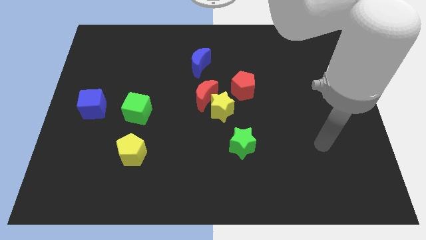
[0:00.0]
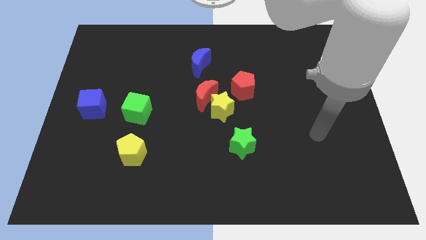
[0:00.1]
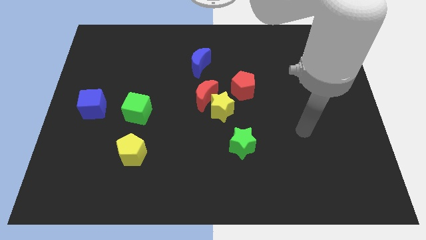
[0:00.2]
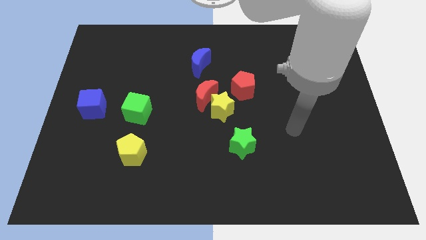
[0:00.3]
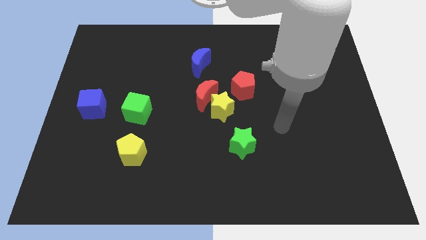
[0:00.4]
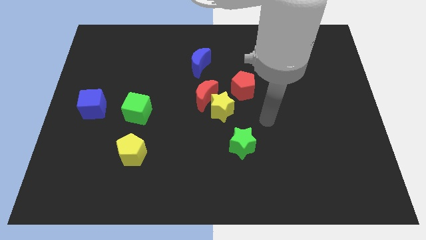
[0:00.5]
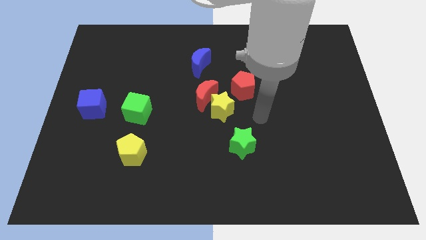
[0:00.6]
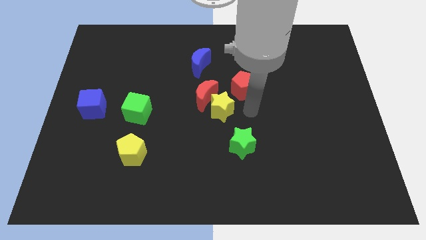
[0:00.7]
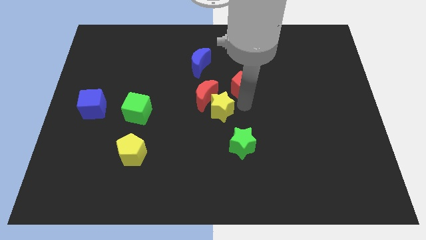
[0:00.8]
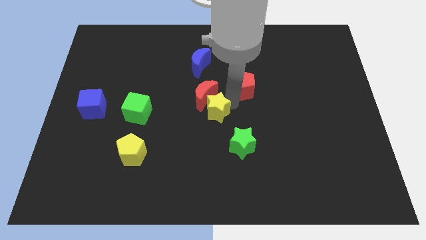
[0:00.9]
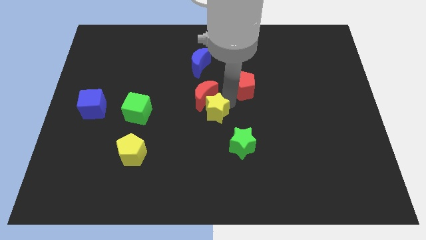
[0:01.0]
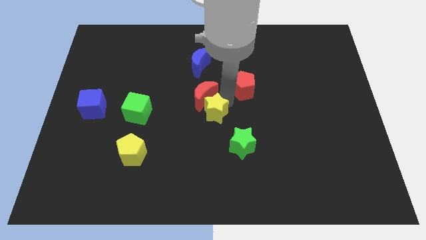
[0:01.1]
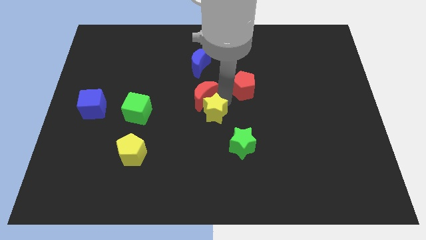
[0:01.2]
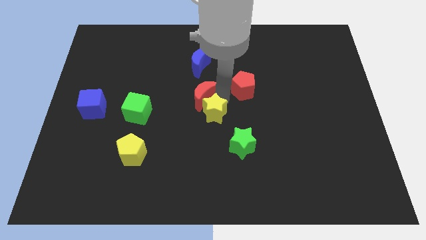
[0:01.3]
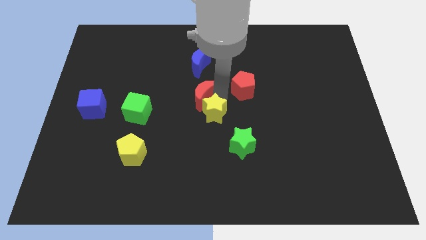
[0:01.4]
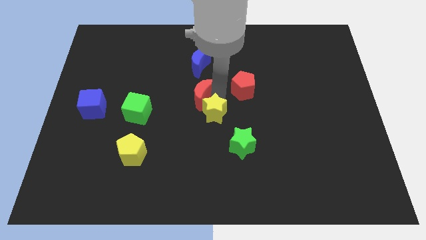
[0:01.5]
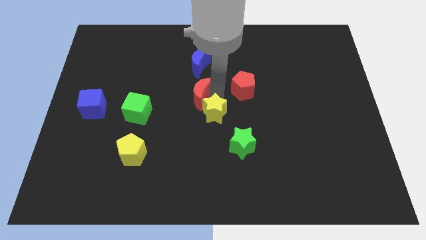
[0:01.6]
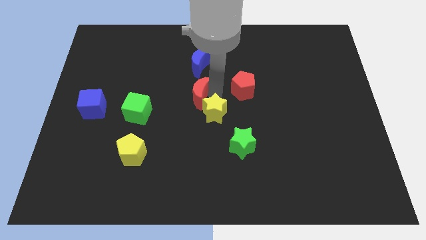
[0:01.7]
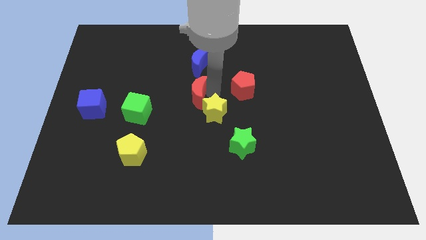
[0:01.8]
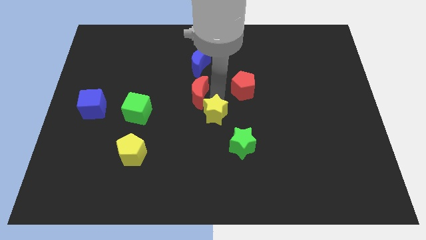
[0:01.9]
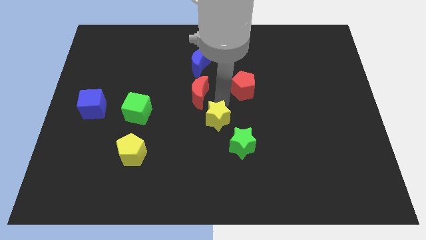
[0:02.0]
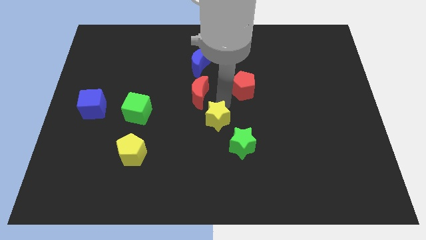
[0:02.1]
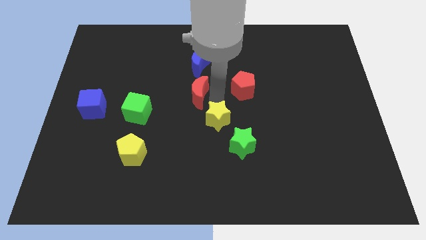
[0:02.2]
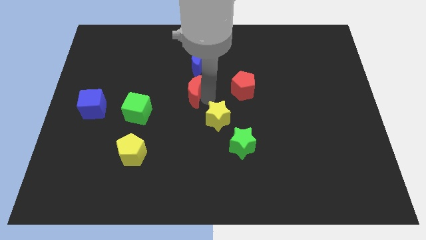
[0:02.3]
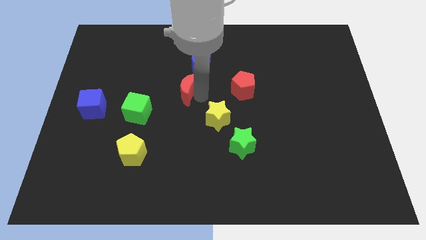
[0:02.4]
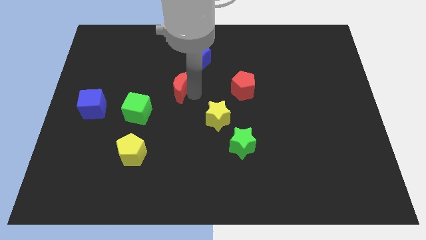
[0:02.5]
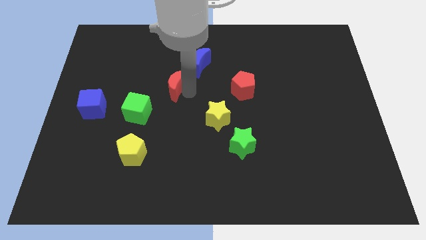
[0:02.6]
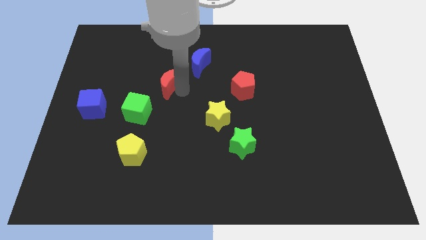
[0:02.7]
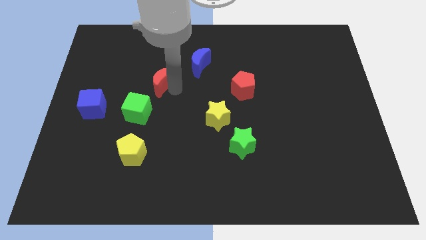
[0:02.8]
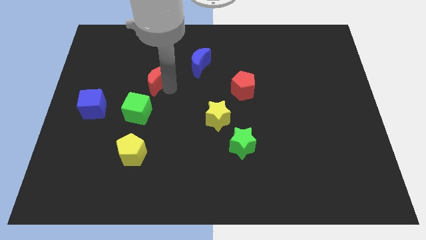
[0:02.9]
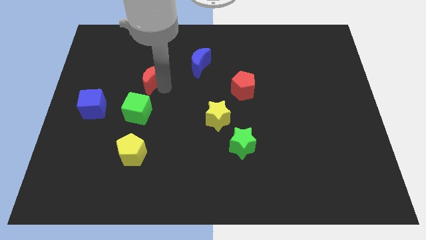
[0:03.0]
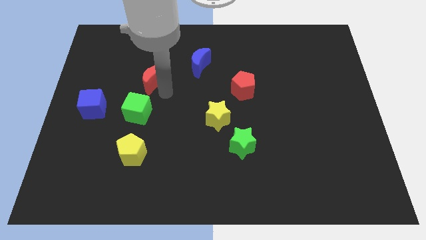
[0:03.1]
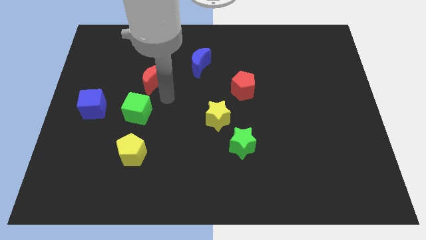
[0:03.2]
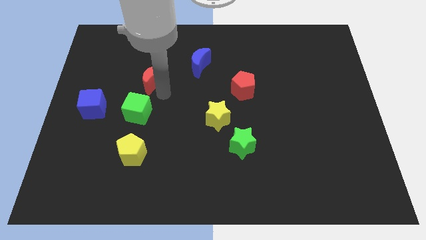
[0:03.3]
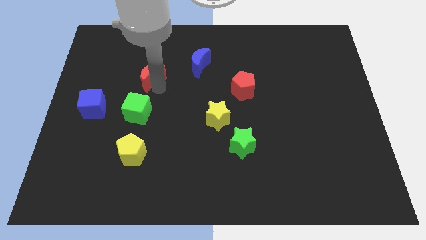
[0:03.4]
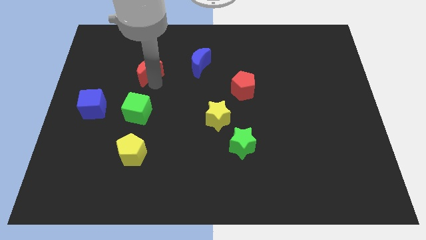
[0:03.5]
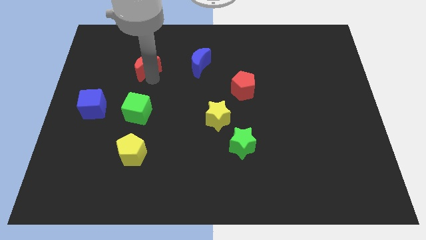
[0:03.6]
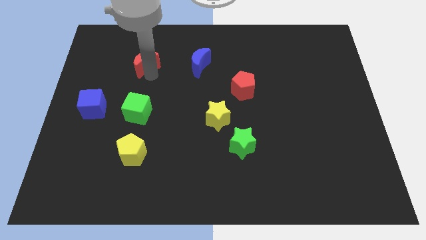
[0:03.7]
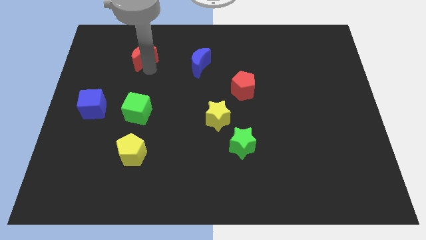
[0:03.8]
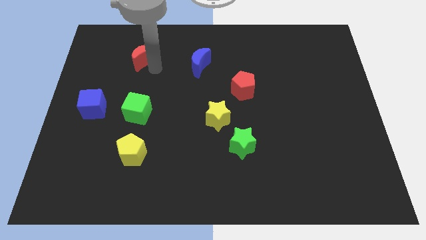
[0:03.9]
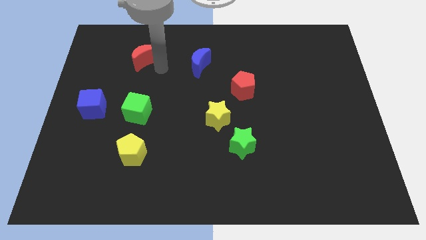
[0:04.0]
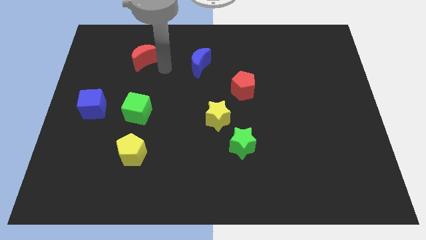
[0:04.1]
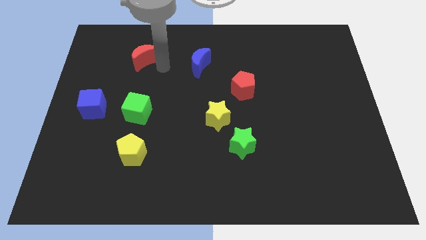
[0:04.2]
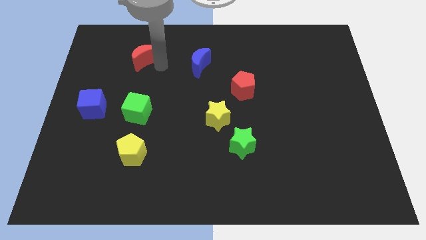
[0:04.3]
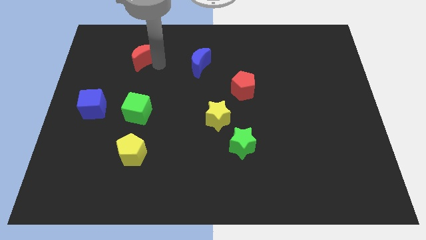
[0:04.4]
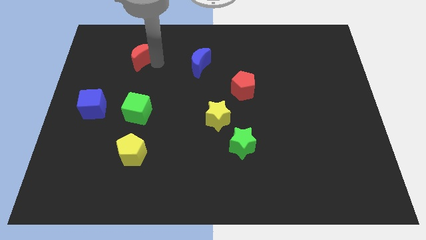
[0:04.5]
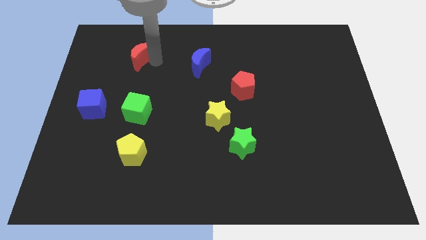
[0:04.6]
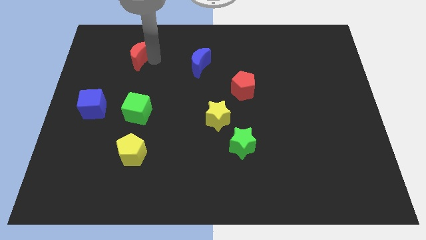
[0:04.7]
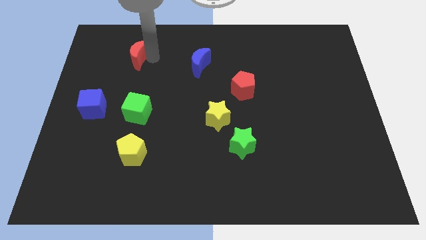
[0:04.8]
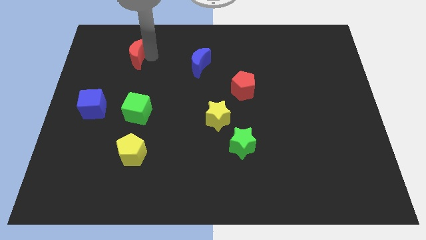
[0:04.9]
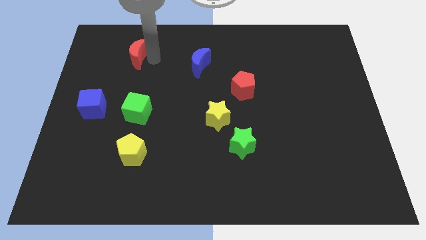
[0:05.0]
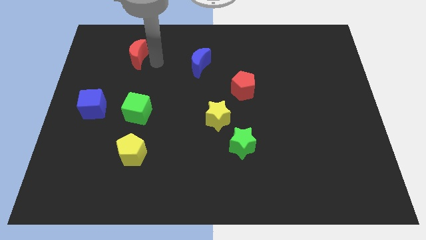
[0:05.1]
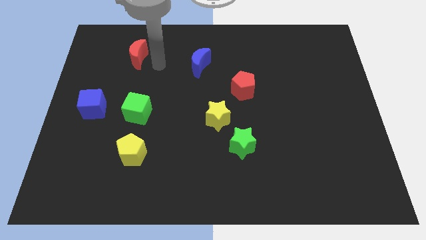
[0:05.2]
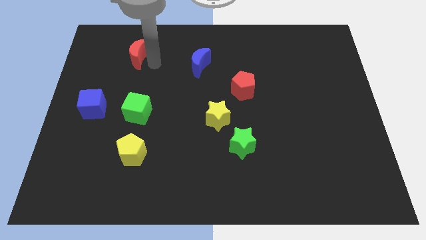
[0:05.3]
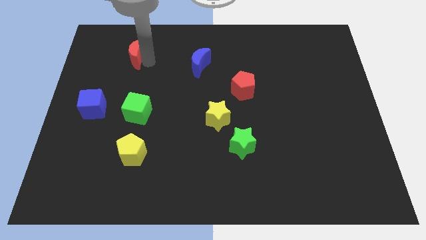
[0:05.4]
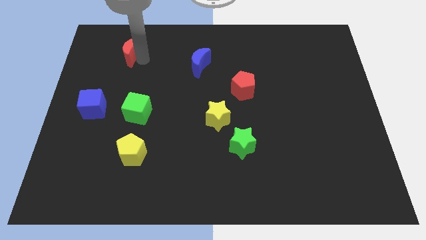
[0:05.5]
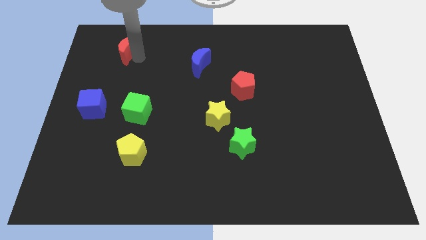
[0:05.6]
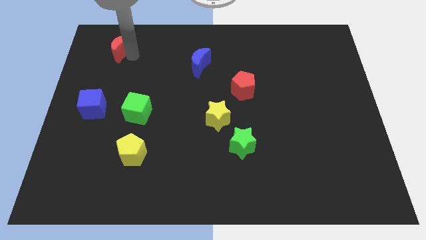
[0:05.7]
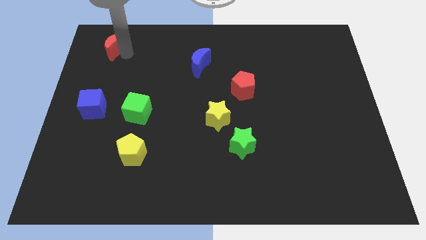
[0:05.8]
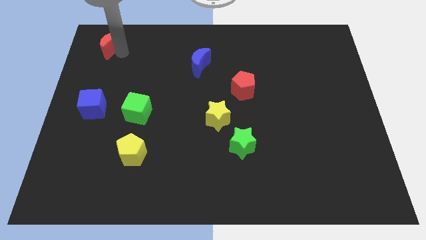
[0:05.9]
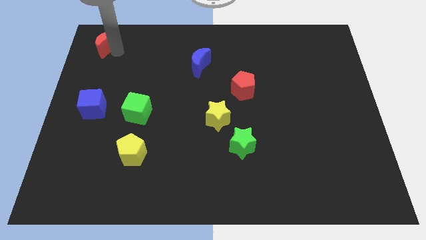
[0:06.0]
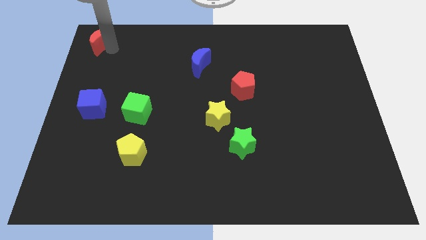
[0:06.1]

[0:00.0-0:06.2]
put the red moon to the top left of the board

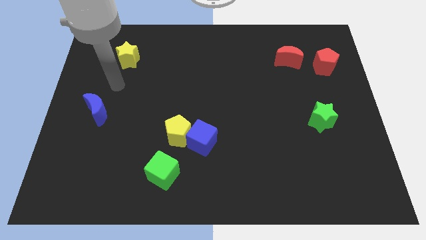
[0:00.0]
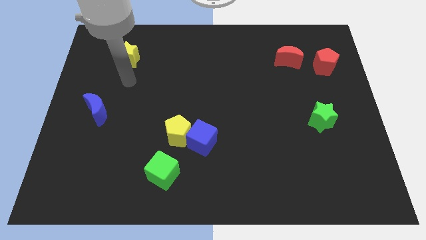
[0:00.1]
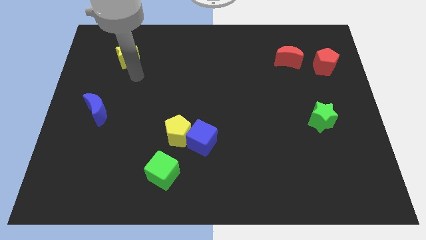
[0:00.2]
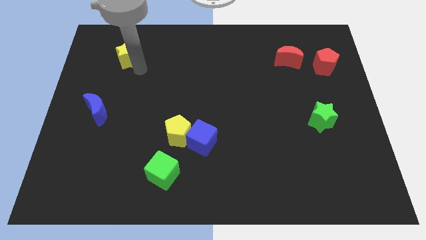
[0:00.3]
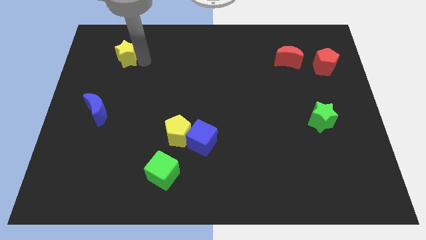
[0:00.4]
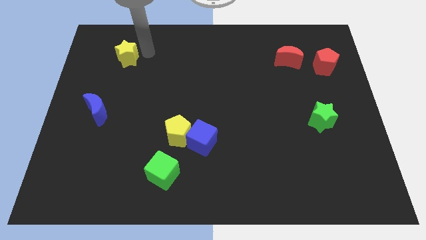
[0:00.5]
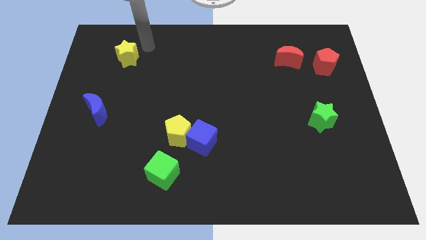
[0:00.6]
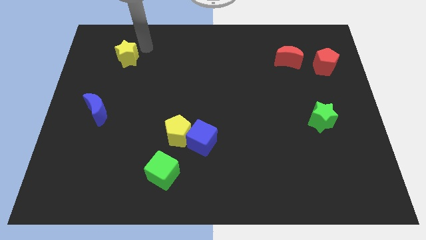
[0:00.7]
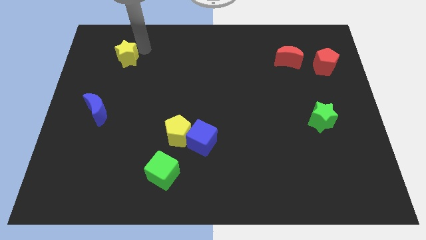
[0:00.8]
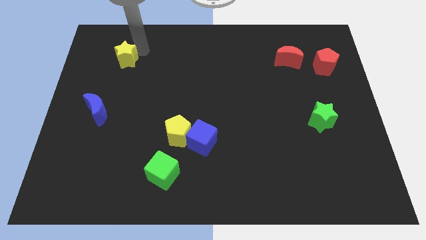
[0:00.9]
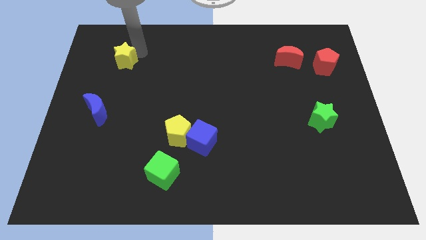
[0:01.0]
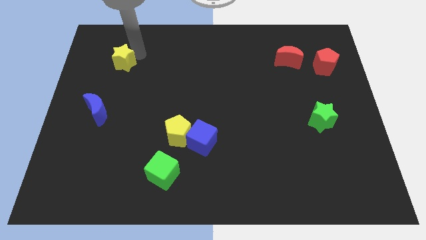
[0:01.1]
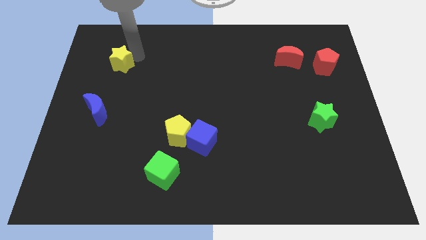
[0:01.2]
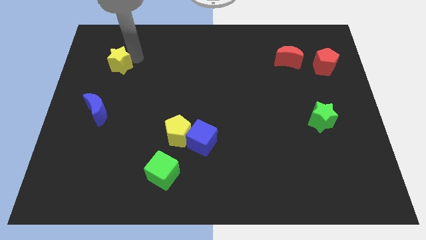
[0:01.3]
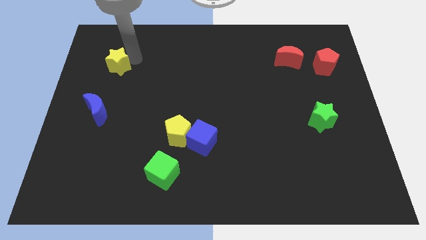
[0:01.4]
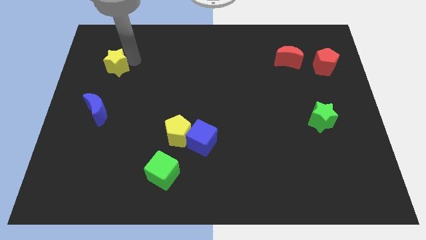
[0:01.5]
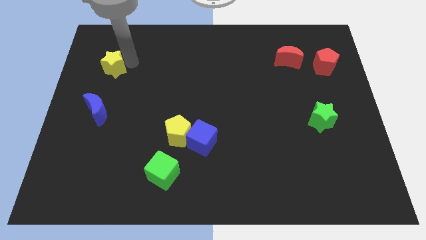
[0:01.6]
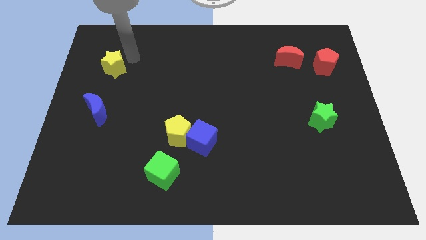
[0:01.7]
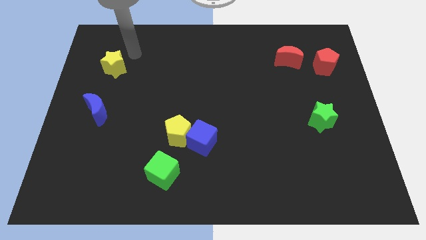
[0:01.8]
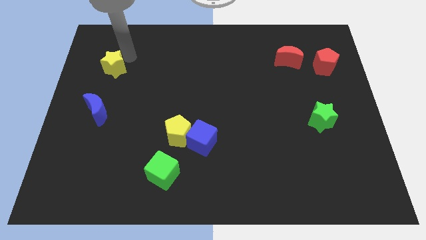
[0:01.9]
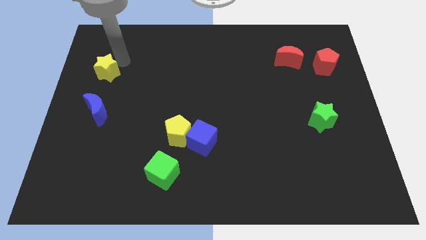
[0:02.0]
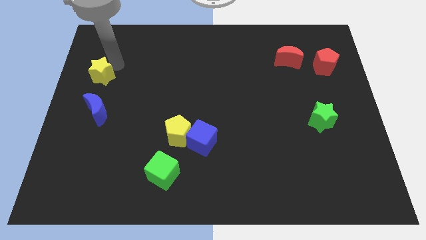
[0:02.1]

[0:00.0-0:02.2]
slide the yellow star to the left side of the board
